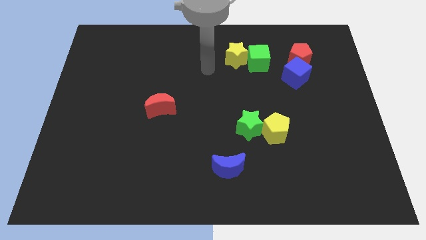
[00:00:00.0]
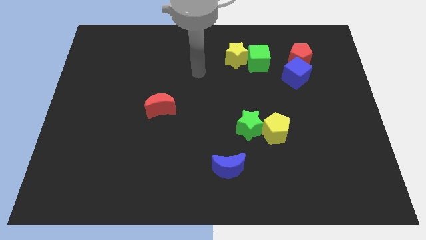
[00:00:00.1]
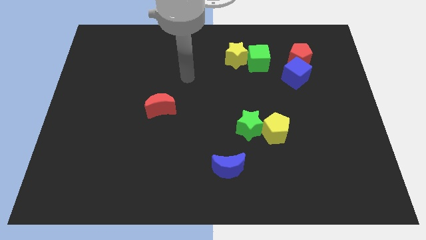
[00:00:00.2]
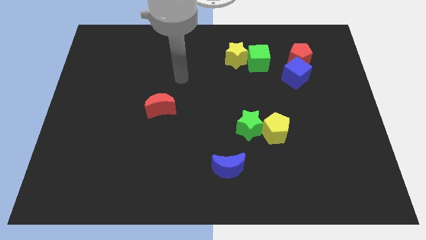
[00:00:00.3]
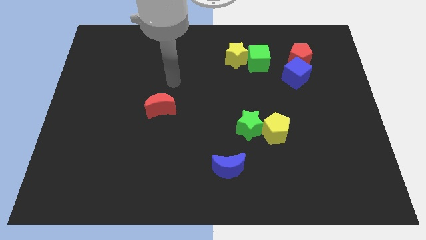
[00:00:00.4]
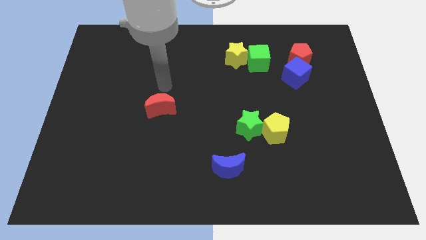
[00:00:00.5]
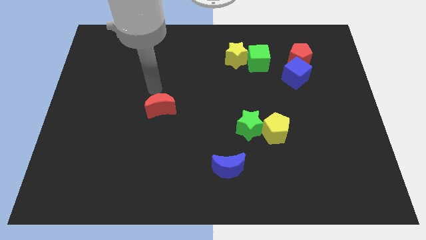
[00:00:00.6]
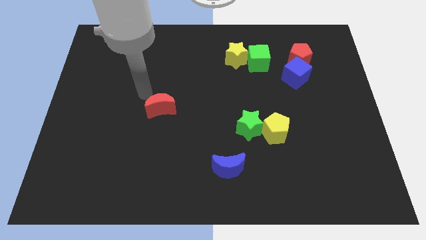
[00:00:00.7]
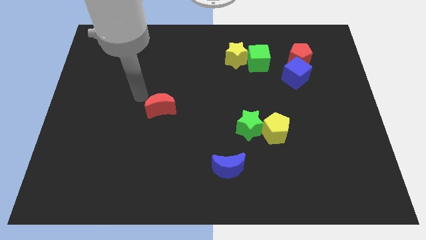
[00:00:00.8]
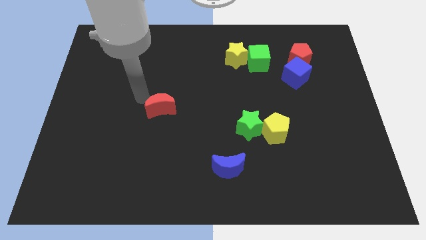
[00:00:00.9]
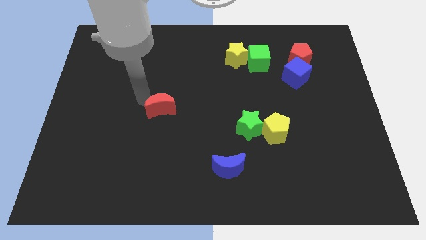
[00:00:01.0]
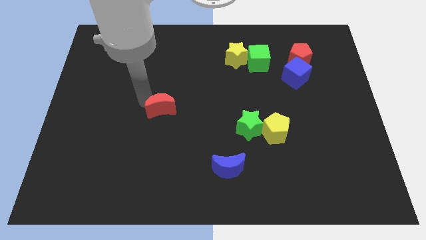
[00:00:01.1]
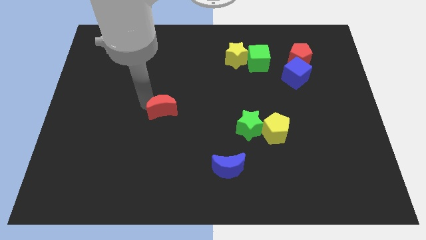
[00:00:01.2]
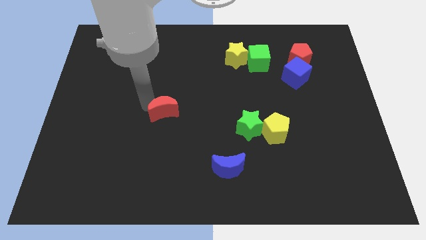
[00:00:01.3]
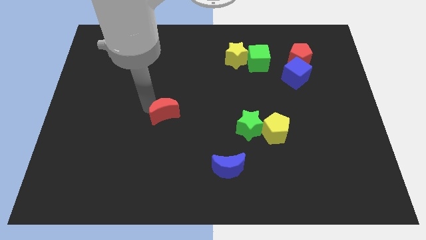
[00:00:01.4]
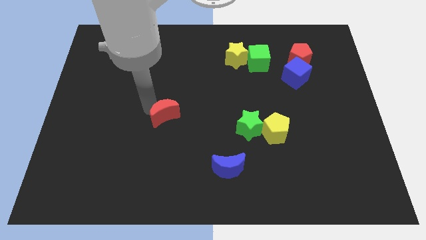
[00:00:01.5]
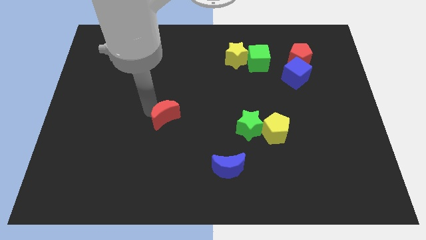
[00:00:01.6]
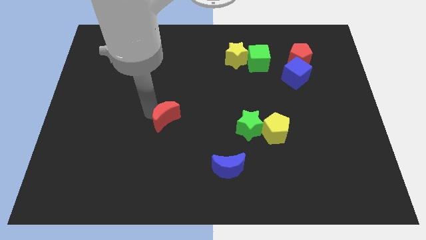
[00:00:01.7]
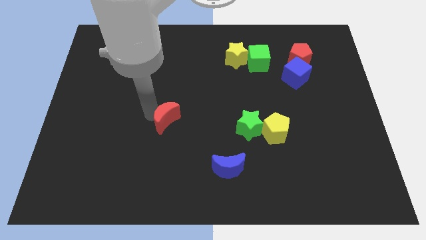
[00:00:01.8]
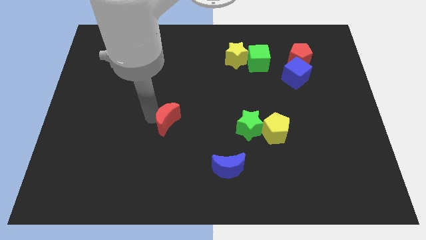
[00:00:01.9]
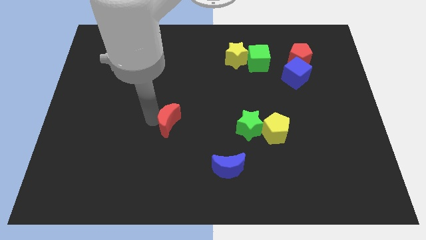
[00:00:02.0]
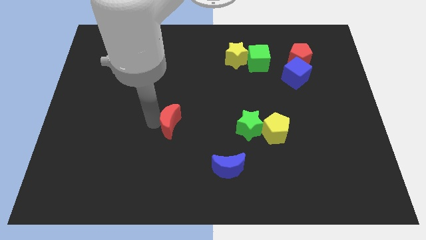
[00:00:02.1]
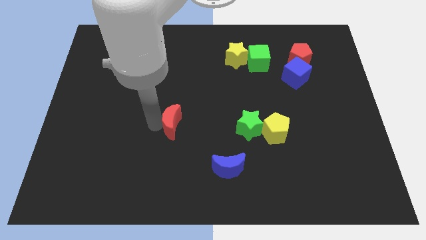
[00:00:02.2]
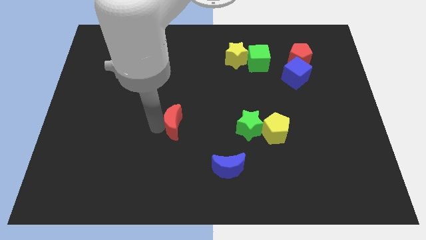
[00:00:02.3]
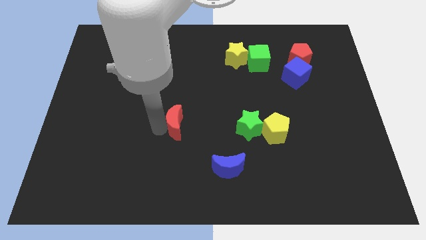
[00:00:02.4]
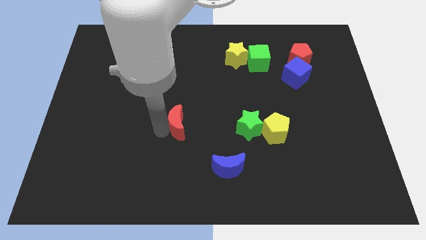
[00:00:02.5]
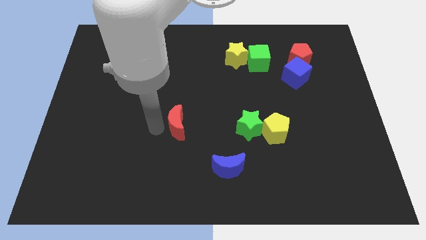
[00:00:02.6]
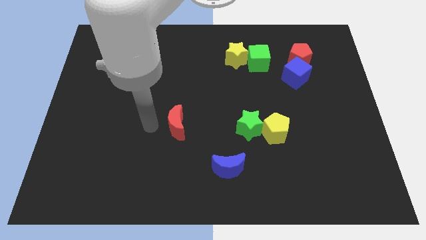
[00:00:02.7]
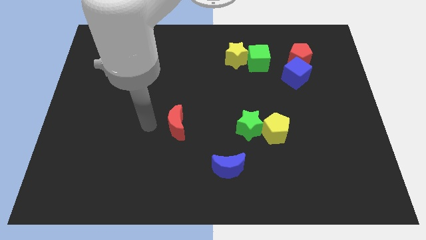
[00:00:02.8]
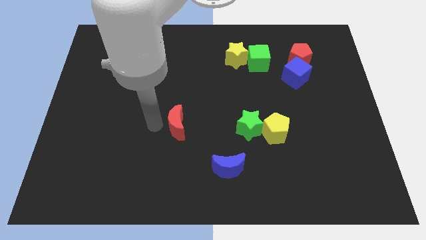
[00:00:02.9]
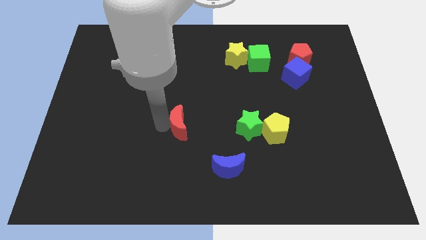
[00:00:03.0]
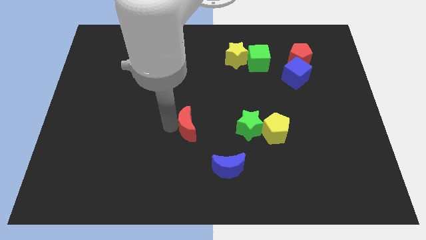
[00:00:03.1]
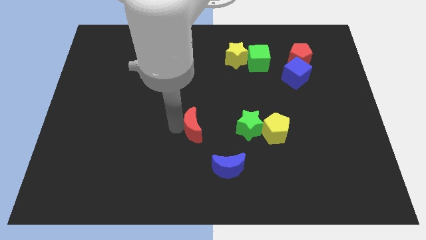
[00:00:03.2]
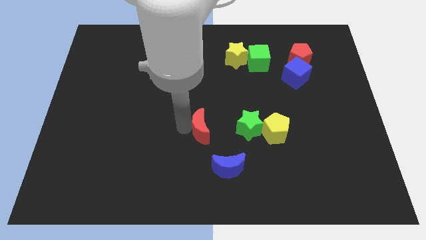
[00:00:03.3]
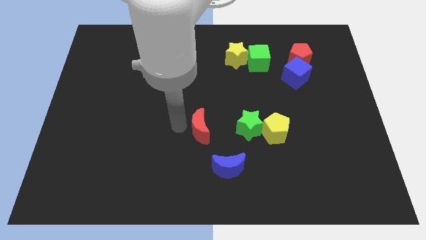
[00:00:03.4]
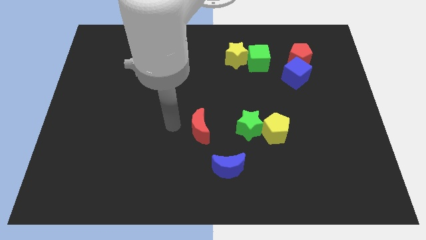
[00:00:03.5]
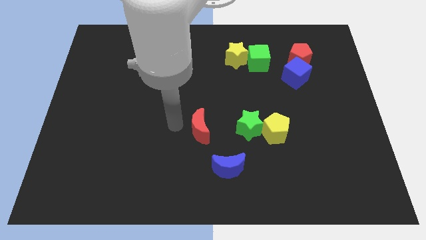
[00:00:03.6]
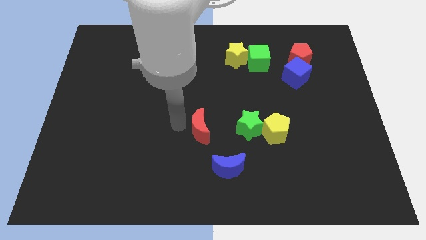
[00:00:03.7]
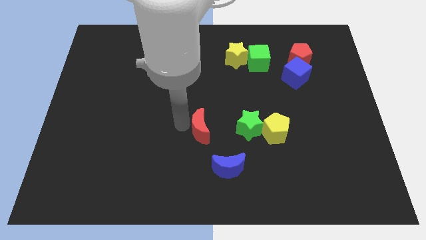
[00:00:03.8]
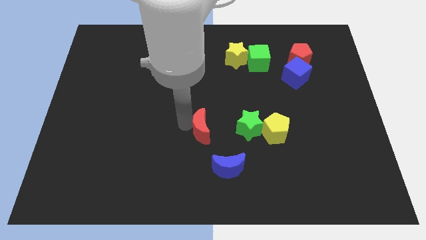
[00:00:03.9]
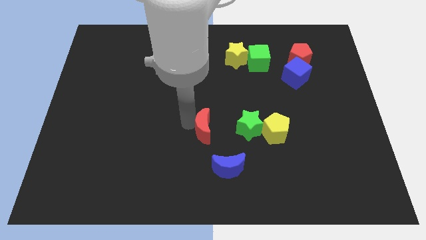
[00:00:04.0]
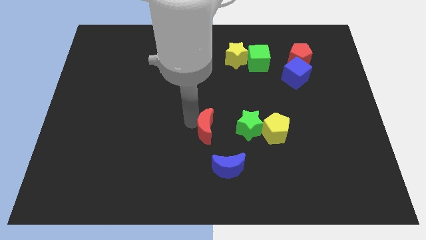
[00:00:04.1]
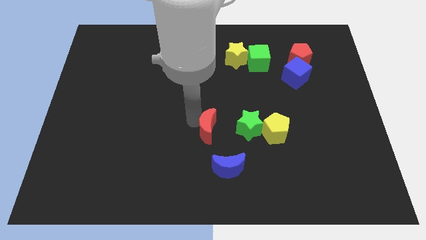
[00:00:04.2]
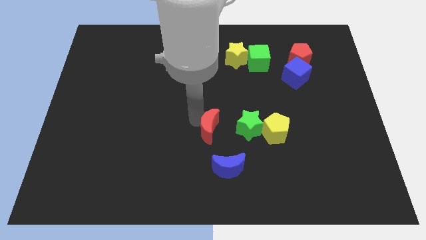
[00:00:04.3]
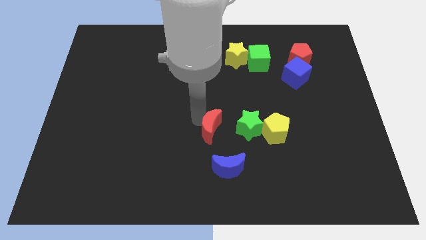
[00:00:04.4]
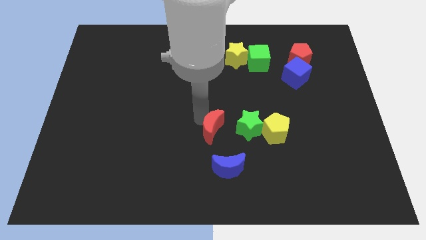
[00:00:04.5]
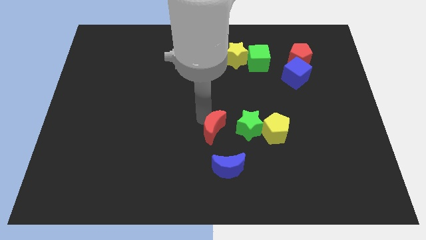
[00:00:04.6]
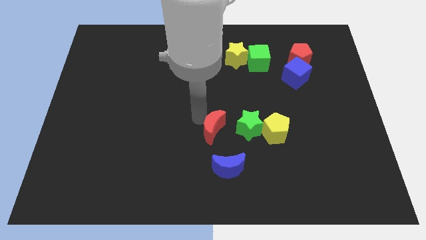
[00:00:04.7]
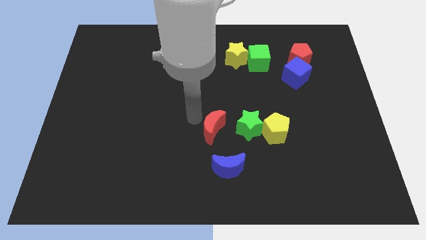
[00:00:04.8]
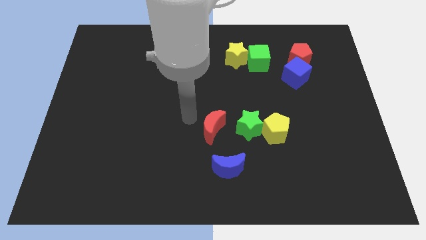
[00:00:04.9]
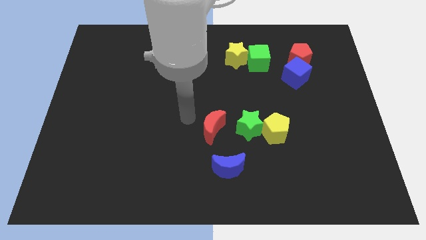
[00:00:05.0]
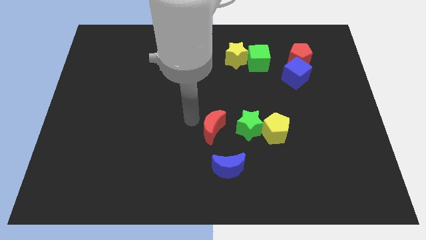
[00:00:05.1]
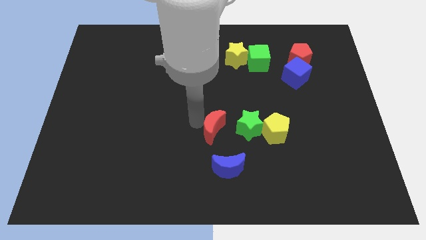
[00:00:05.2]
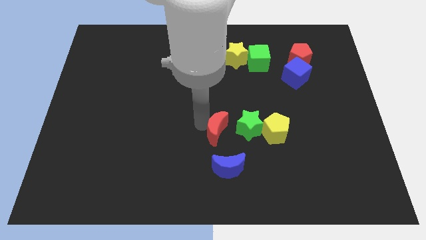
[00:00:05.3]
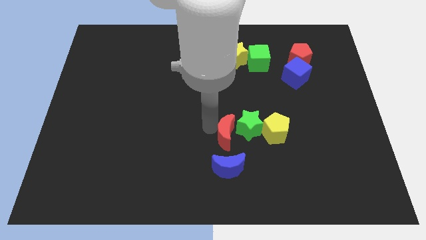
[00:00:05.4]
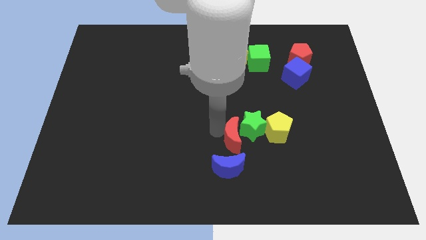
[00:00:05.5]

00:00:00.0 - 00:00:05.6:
push the red moon to the top right of the blue moon

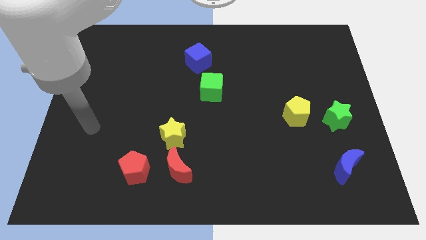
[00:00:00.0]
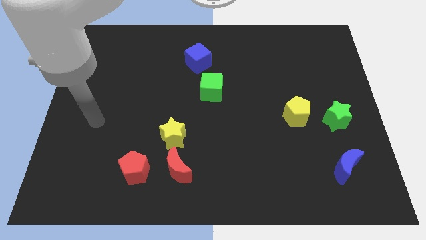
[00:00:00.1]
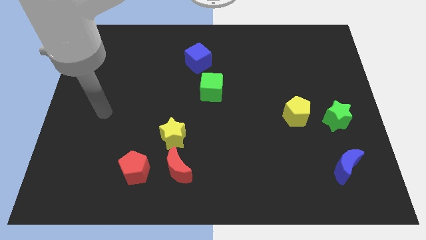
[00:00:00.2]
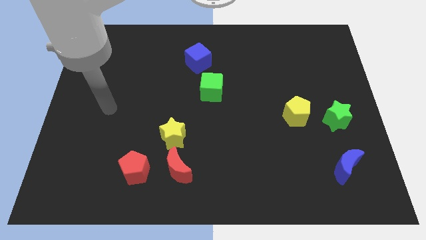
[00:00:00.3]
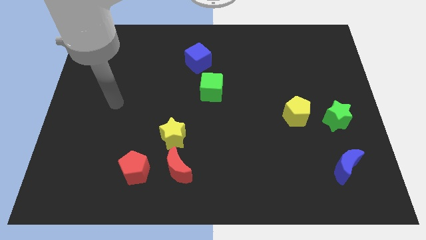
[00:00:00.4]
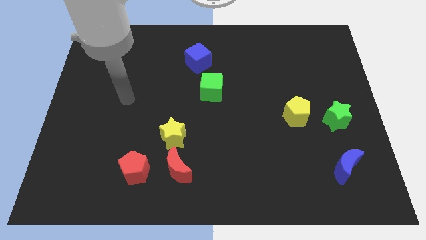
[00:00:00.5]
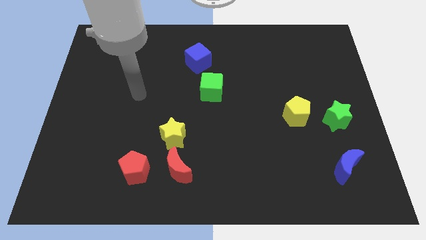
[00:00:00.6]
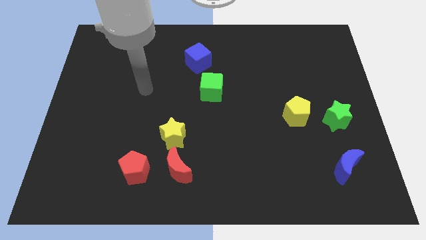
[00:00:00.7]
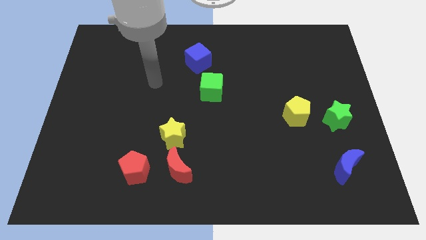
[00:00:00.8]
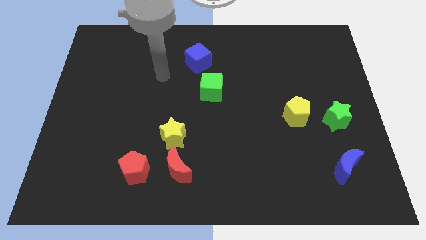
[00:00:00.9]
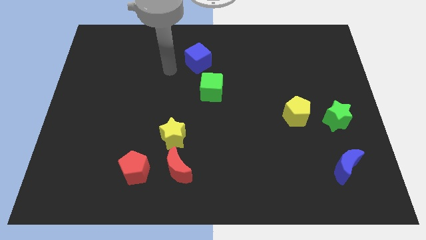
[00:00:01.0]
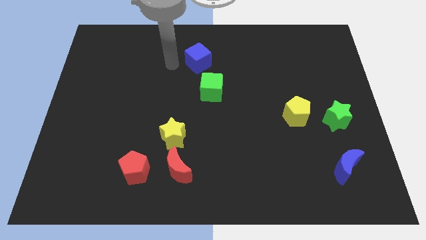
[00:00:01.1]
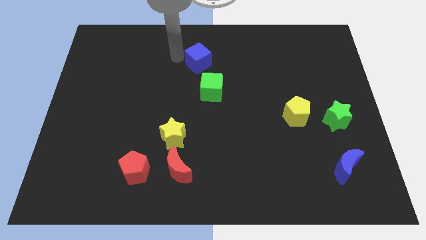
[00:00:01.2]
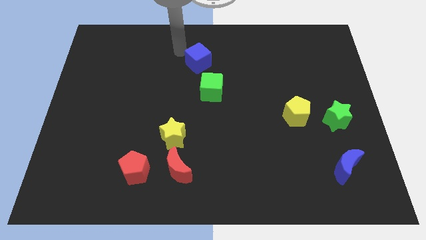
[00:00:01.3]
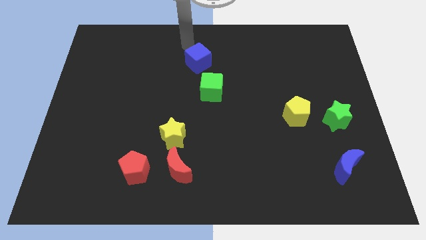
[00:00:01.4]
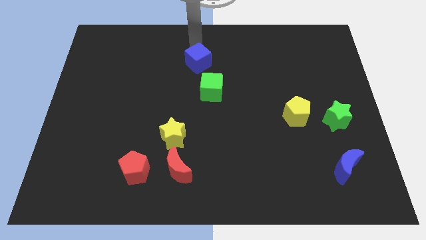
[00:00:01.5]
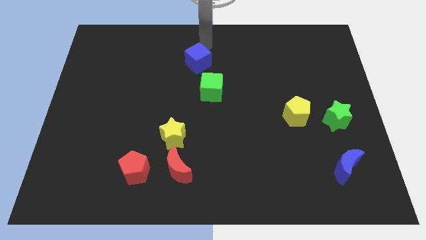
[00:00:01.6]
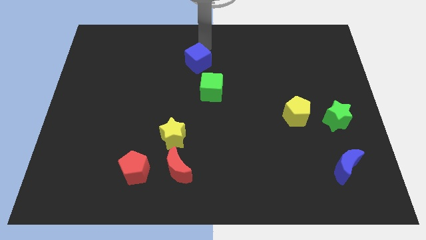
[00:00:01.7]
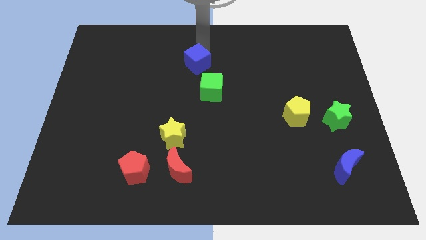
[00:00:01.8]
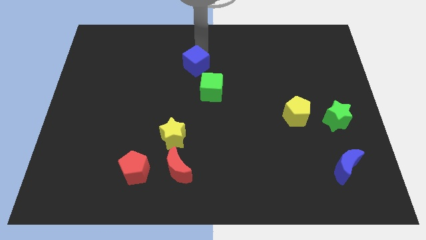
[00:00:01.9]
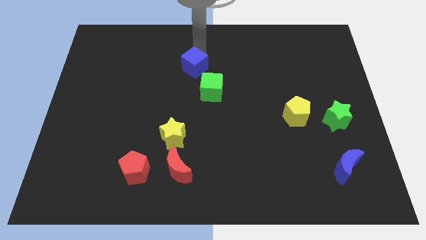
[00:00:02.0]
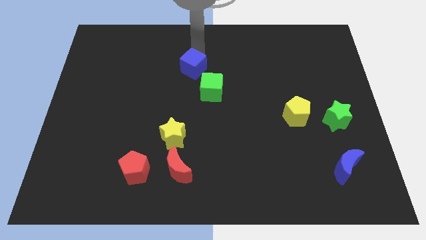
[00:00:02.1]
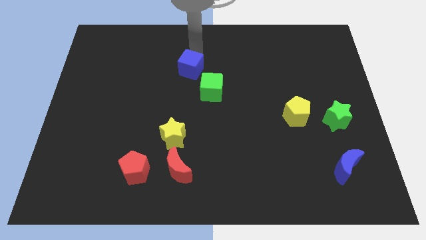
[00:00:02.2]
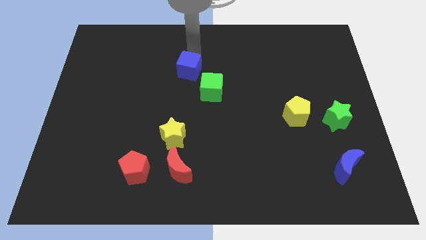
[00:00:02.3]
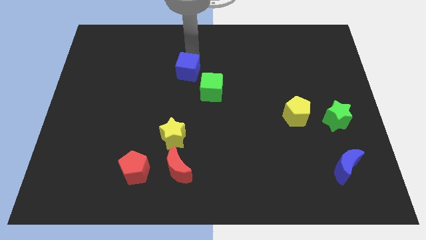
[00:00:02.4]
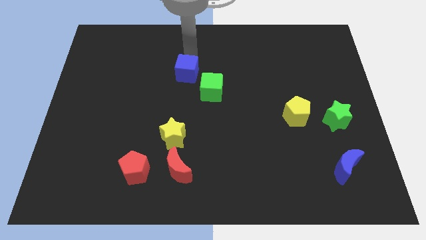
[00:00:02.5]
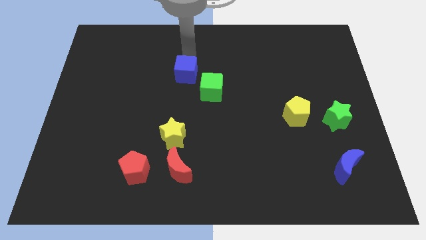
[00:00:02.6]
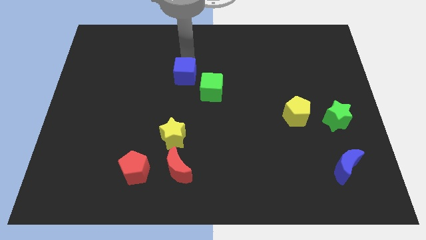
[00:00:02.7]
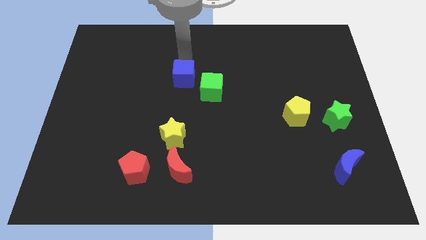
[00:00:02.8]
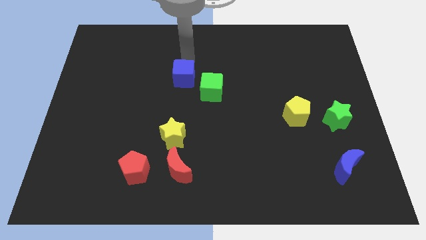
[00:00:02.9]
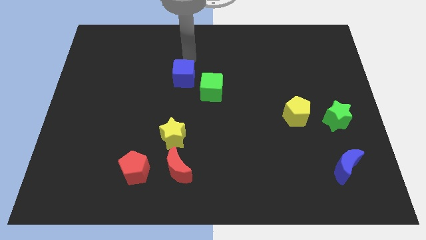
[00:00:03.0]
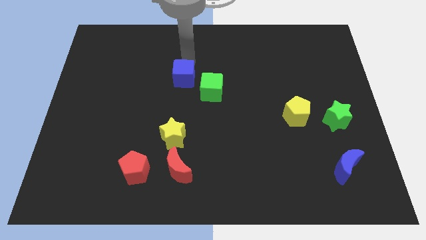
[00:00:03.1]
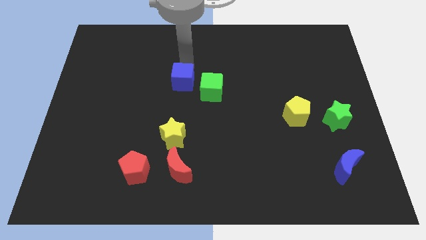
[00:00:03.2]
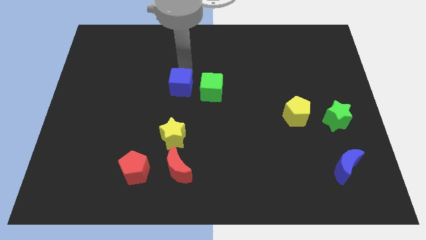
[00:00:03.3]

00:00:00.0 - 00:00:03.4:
put the blue cube to the top of the yellow star

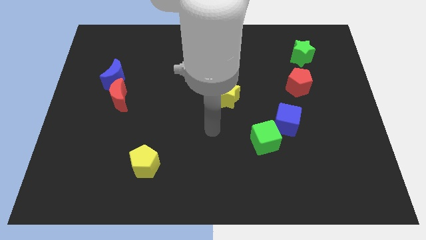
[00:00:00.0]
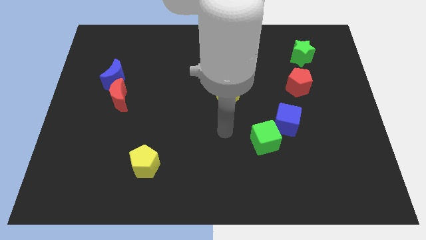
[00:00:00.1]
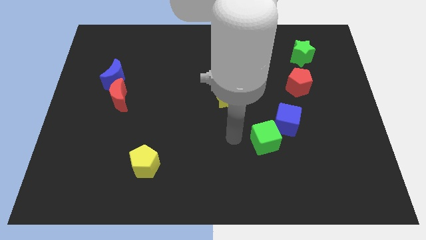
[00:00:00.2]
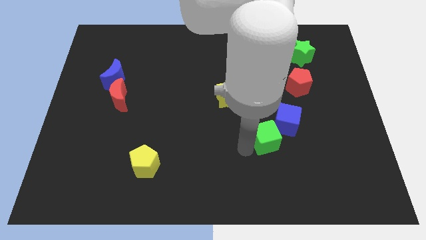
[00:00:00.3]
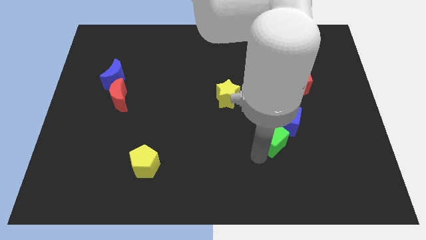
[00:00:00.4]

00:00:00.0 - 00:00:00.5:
move the blue cube above the green cube
